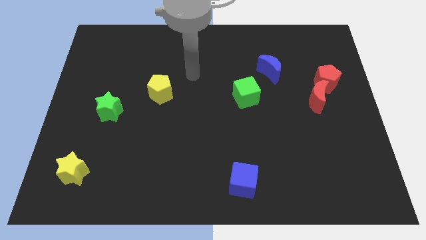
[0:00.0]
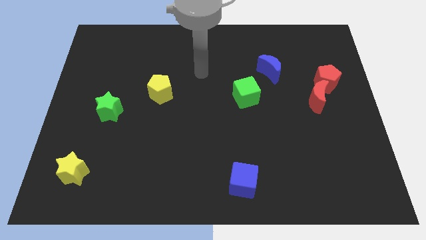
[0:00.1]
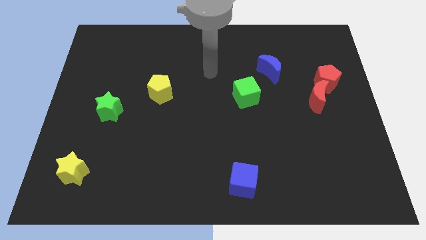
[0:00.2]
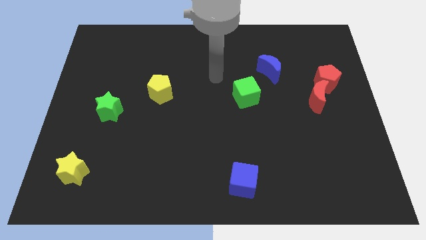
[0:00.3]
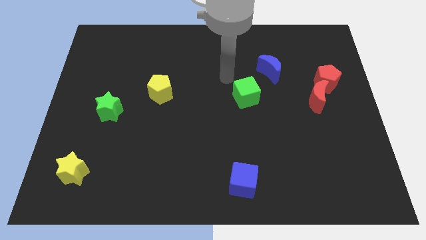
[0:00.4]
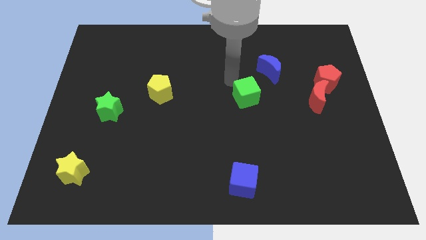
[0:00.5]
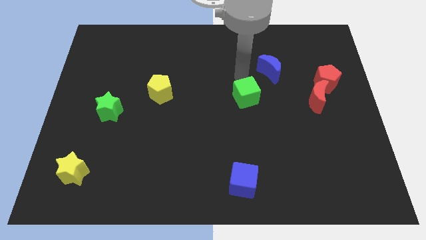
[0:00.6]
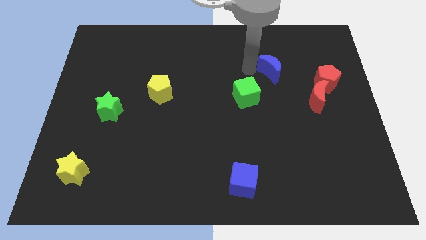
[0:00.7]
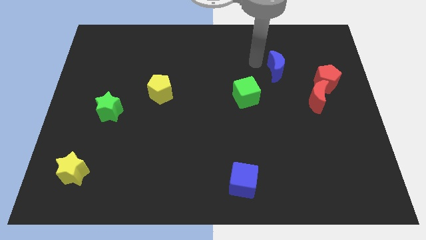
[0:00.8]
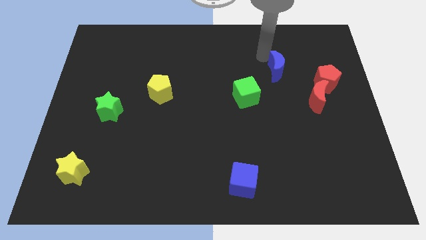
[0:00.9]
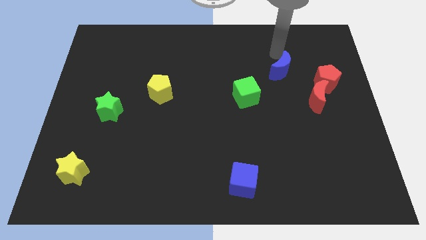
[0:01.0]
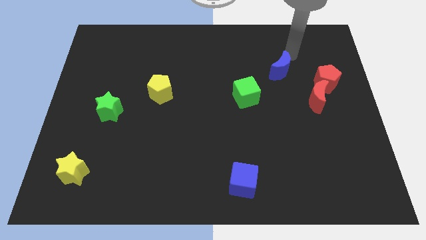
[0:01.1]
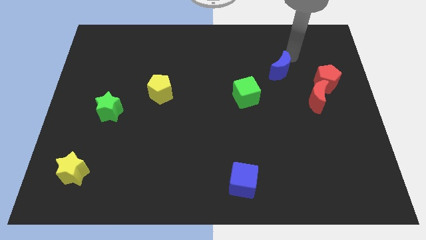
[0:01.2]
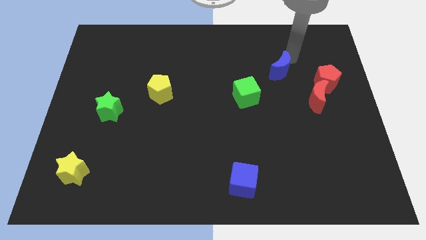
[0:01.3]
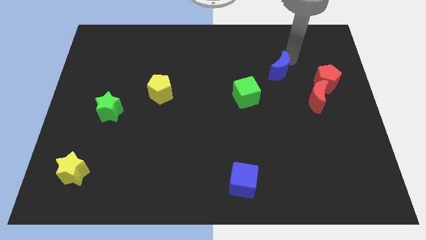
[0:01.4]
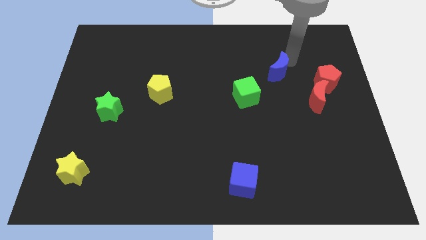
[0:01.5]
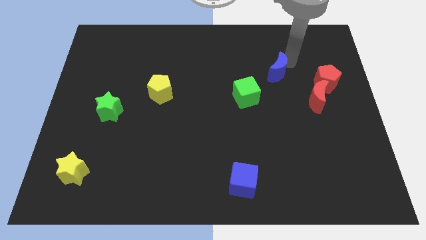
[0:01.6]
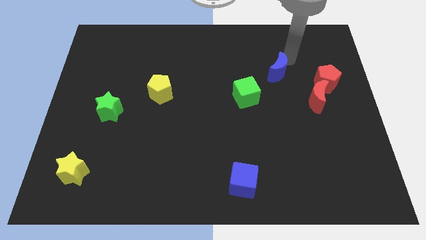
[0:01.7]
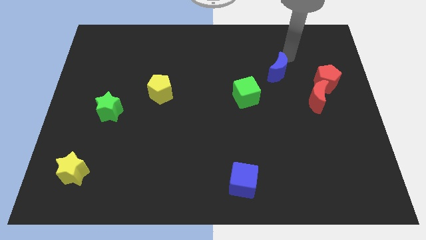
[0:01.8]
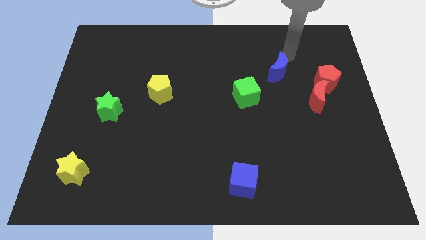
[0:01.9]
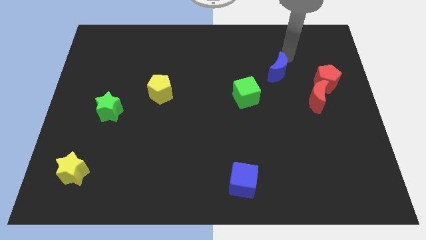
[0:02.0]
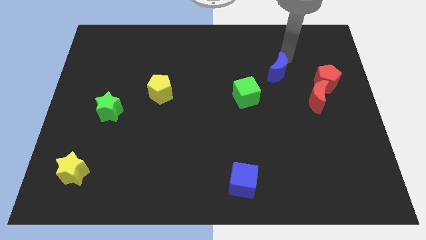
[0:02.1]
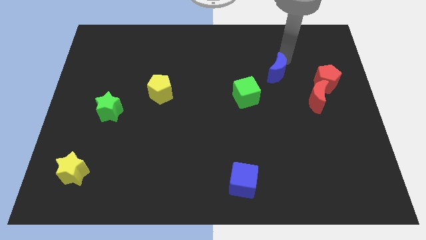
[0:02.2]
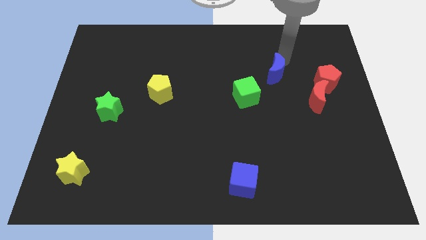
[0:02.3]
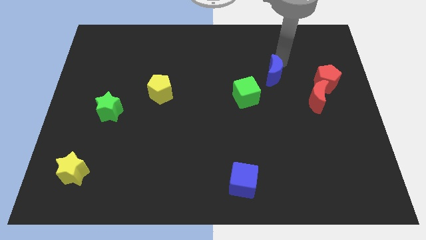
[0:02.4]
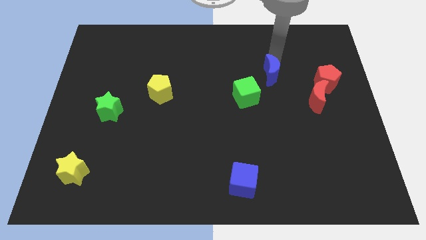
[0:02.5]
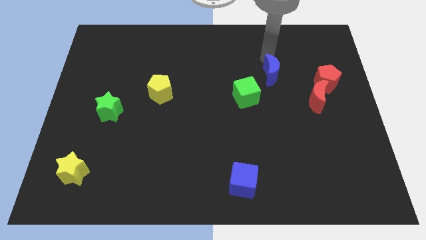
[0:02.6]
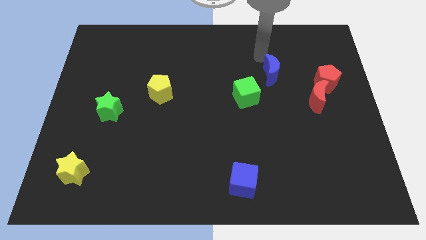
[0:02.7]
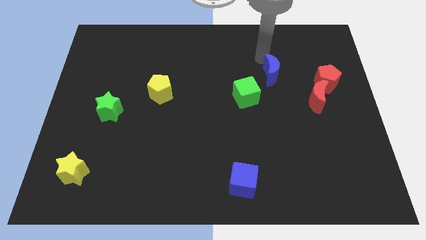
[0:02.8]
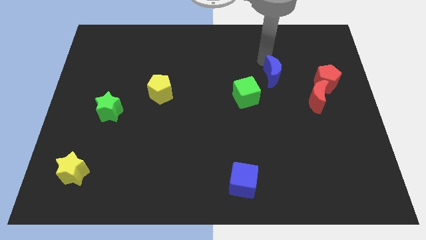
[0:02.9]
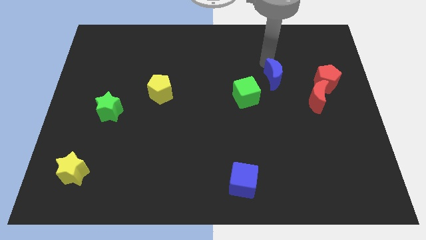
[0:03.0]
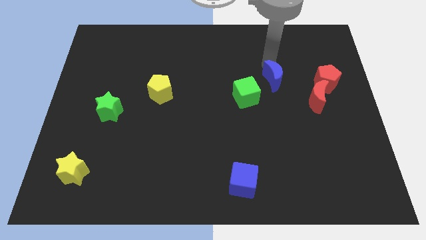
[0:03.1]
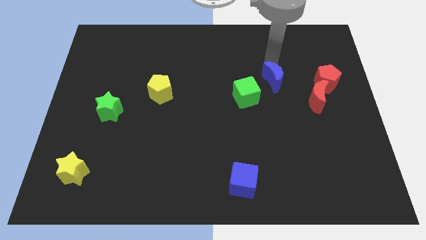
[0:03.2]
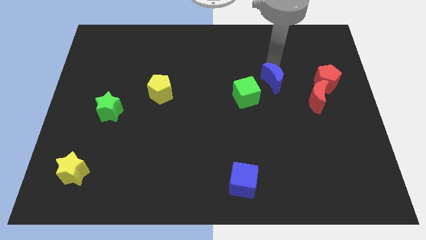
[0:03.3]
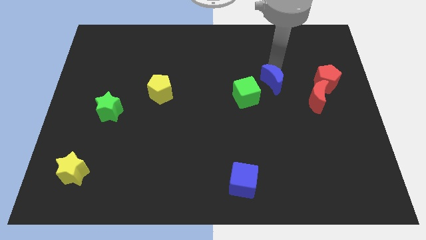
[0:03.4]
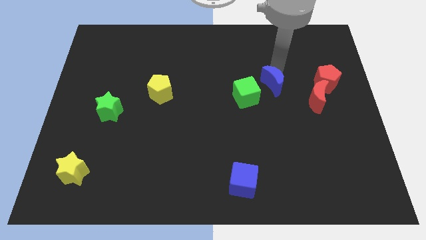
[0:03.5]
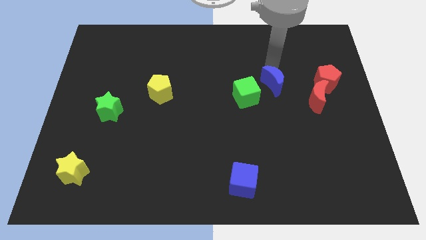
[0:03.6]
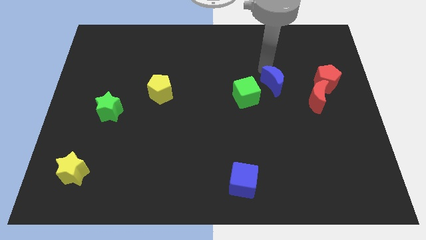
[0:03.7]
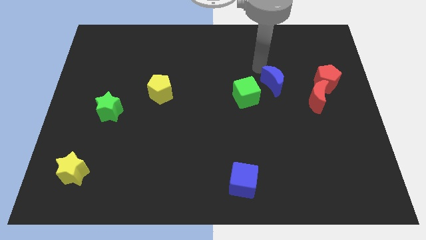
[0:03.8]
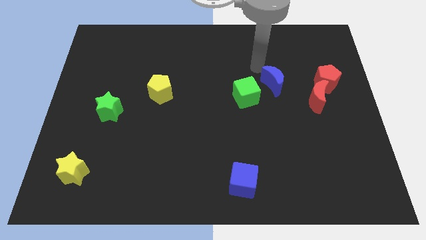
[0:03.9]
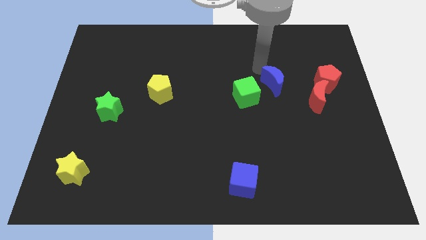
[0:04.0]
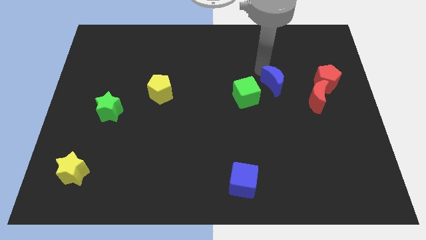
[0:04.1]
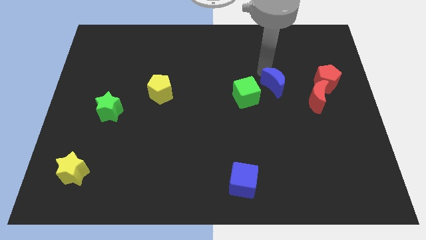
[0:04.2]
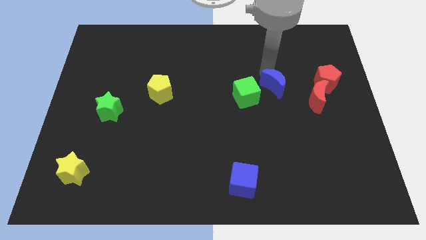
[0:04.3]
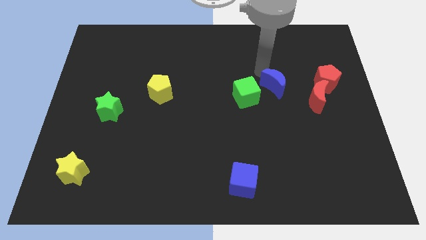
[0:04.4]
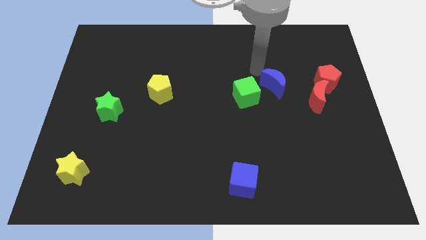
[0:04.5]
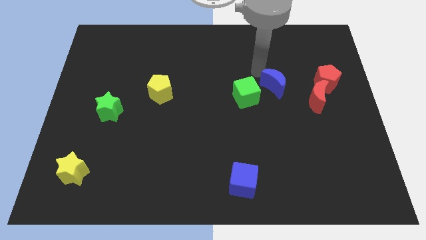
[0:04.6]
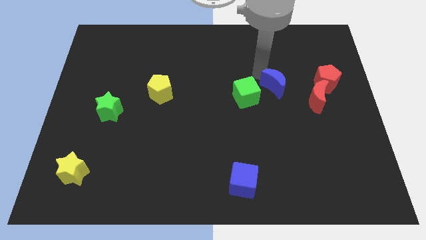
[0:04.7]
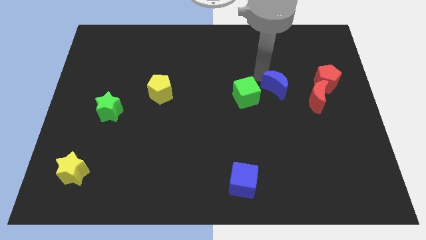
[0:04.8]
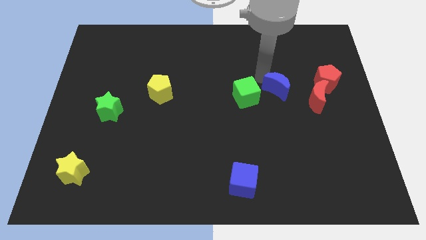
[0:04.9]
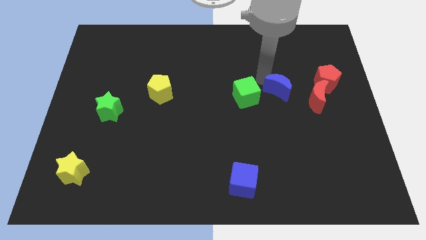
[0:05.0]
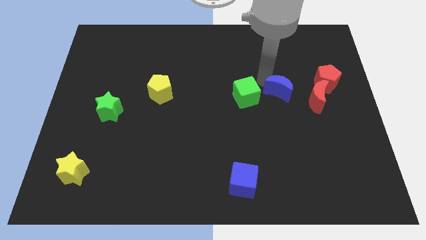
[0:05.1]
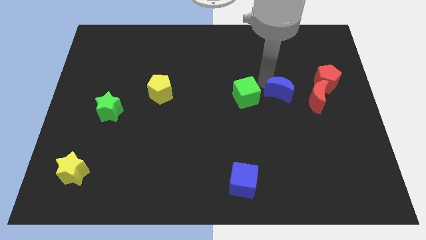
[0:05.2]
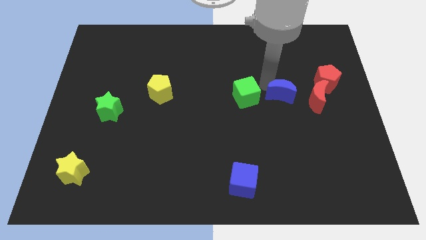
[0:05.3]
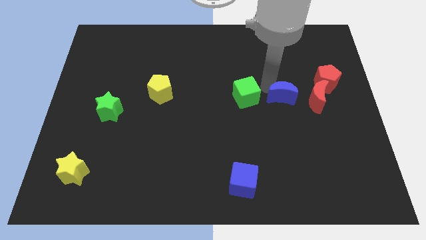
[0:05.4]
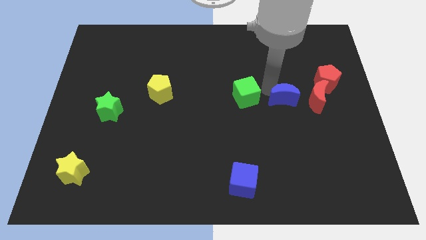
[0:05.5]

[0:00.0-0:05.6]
push the blue moon a bit diagonally downwards and right

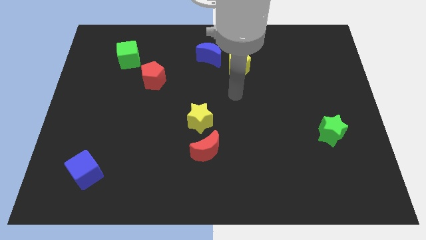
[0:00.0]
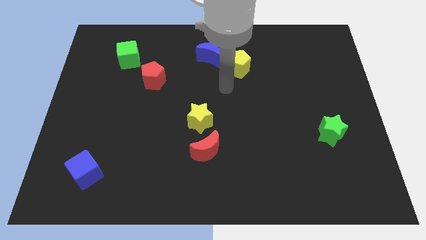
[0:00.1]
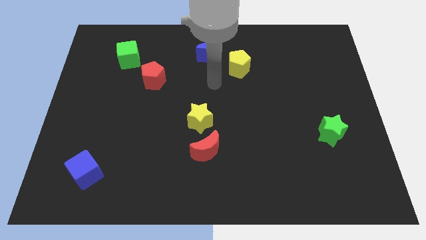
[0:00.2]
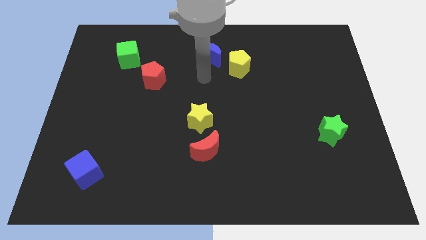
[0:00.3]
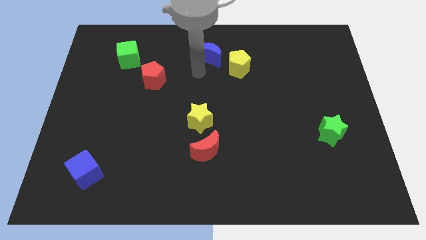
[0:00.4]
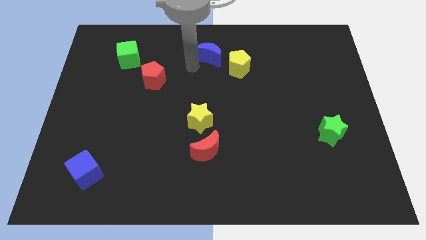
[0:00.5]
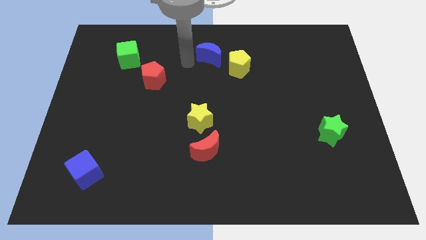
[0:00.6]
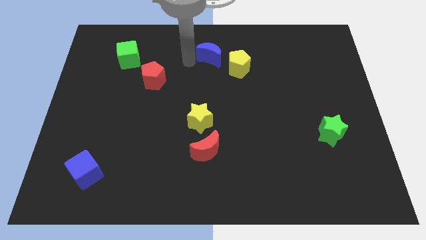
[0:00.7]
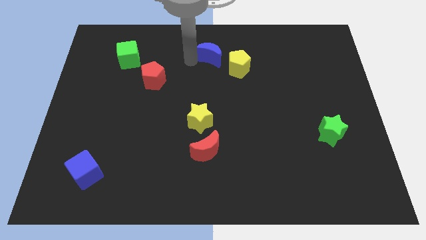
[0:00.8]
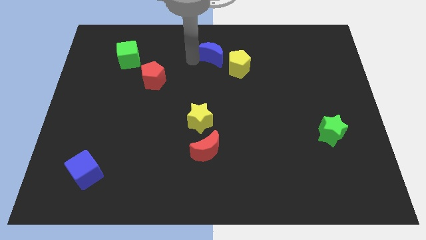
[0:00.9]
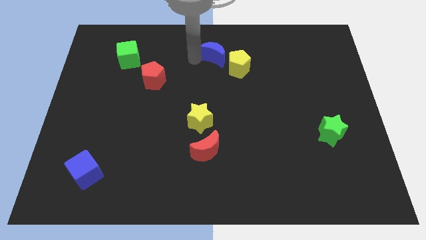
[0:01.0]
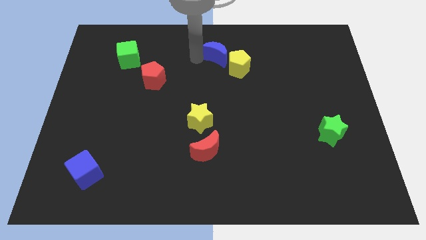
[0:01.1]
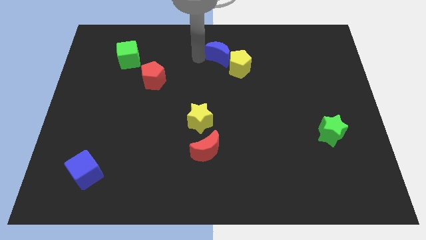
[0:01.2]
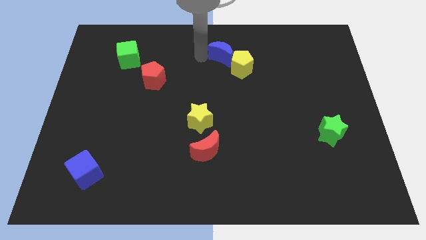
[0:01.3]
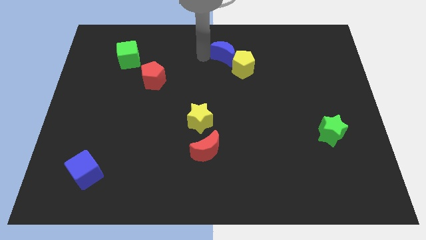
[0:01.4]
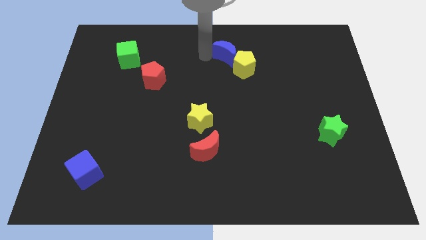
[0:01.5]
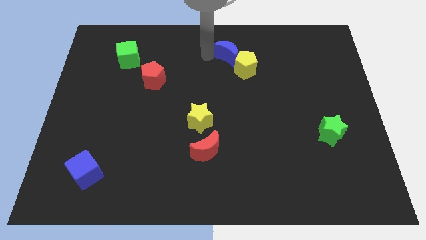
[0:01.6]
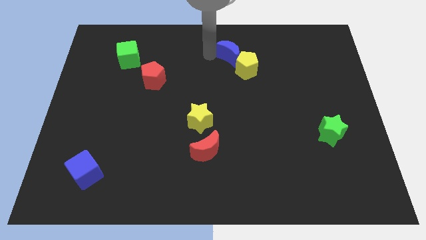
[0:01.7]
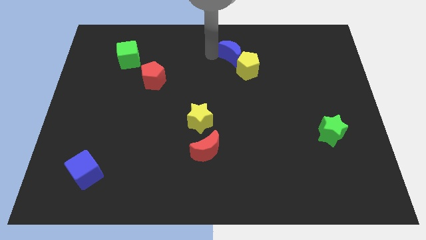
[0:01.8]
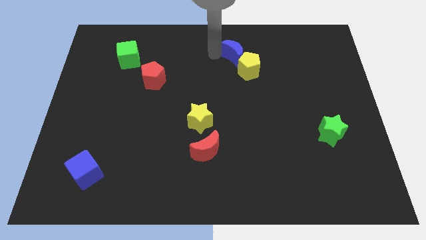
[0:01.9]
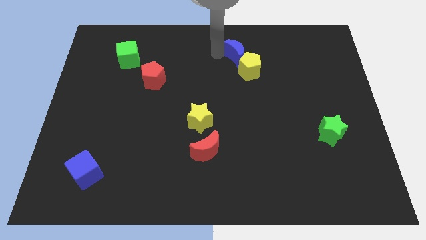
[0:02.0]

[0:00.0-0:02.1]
move the blue moon right a little bit
